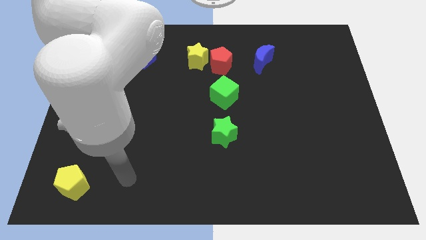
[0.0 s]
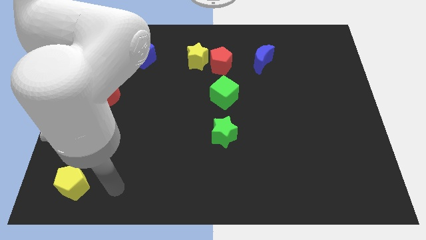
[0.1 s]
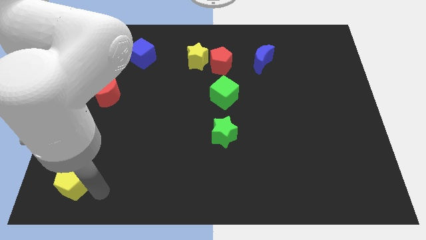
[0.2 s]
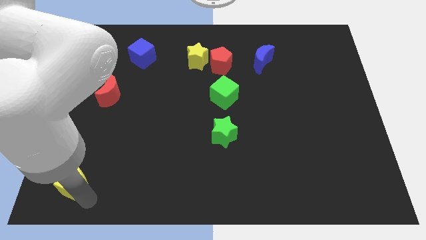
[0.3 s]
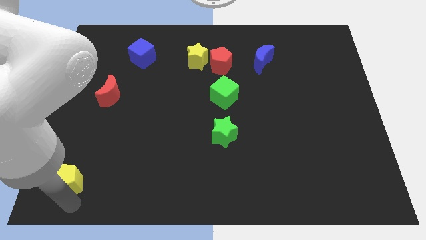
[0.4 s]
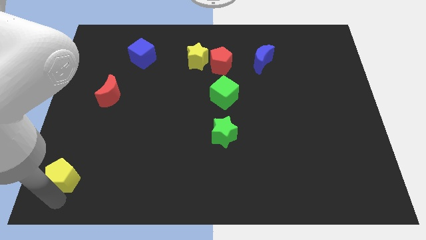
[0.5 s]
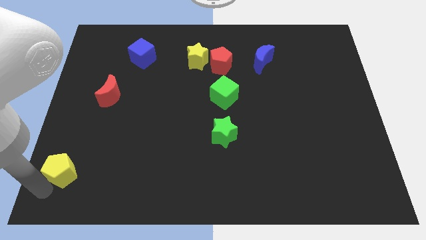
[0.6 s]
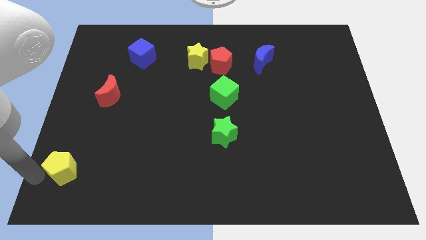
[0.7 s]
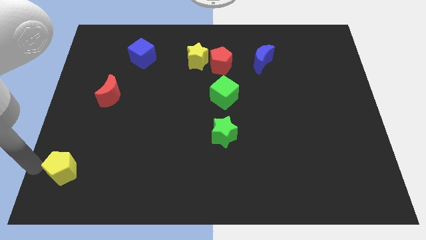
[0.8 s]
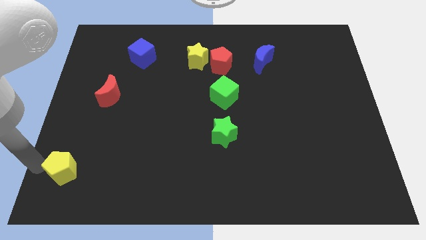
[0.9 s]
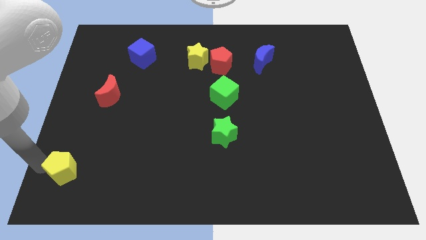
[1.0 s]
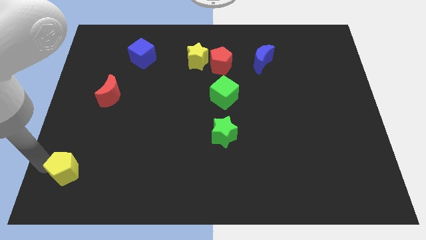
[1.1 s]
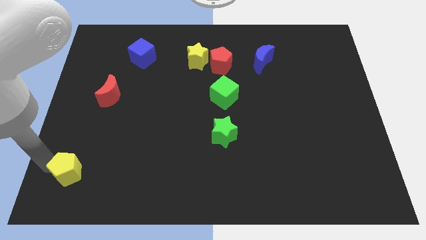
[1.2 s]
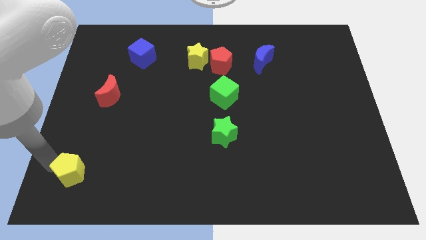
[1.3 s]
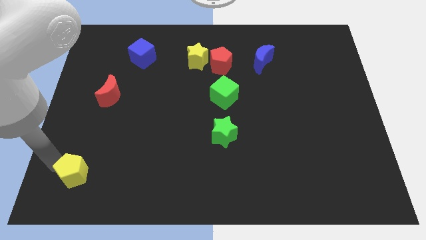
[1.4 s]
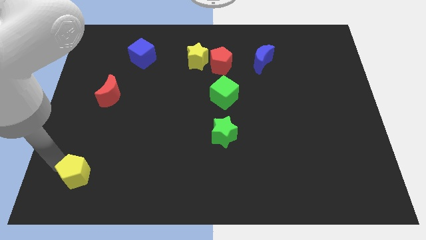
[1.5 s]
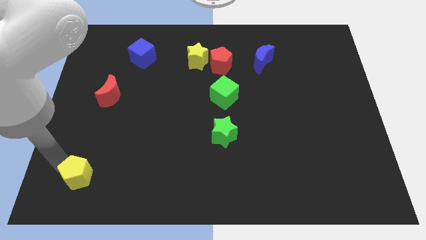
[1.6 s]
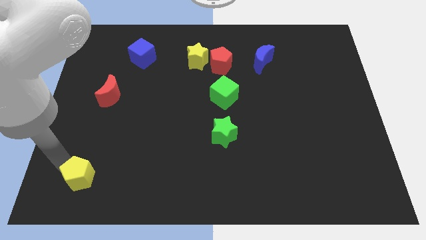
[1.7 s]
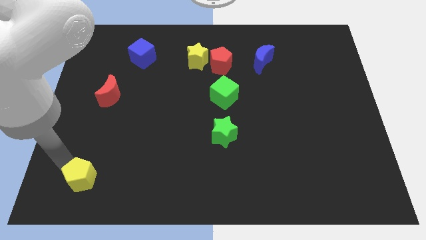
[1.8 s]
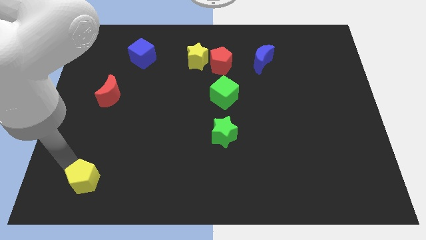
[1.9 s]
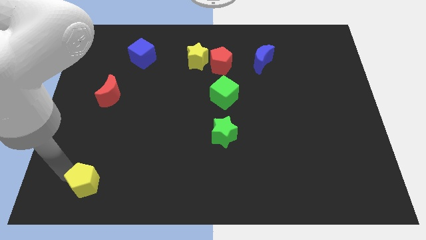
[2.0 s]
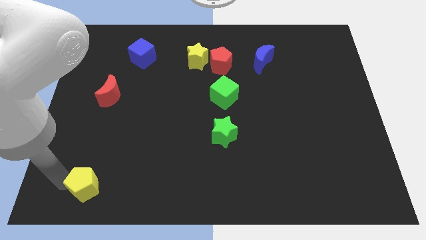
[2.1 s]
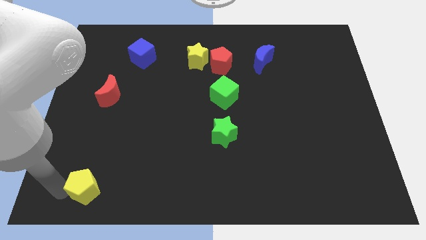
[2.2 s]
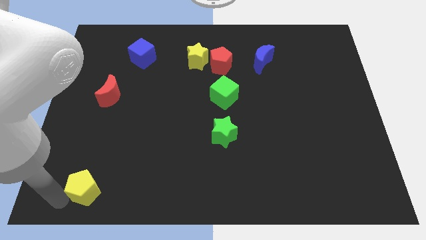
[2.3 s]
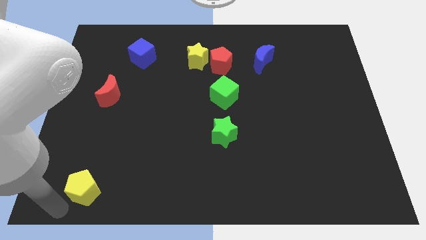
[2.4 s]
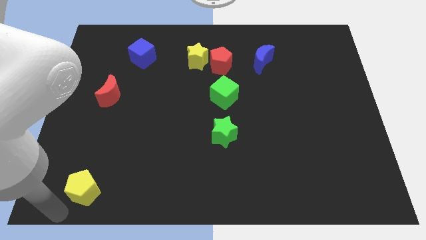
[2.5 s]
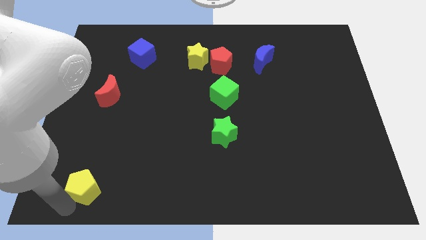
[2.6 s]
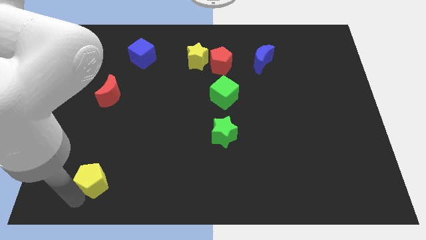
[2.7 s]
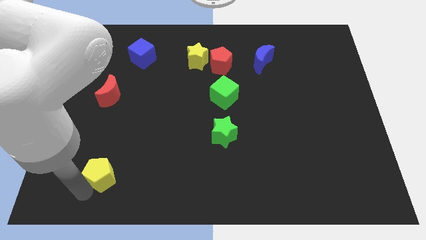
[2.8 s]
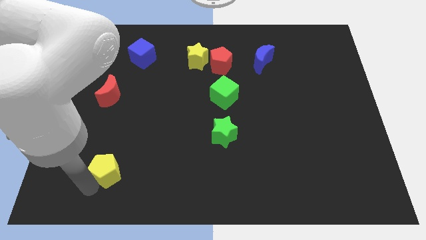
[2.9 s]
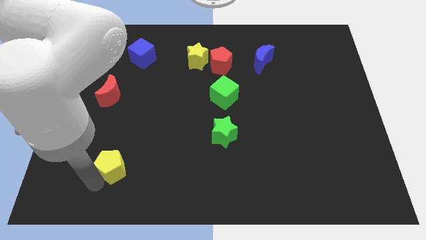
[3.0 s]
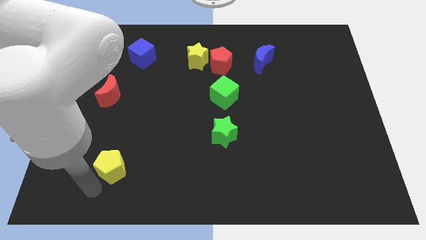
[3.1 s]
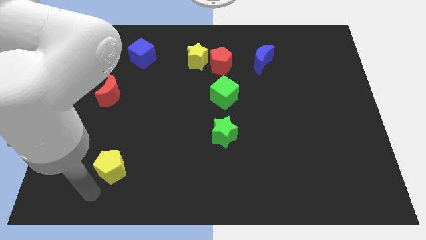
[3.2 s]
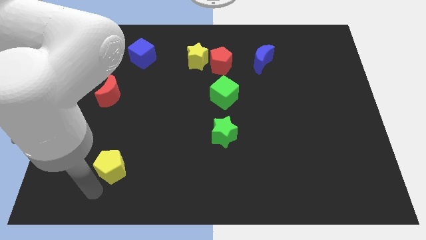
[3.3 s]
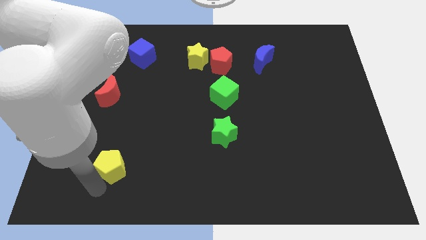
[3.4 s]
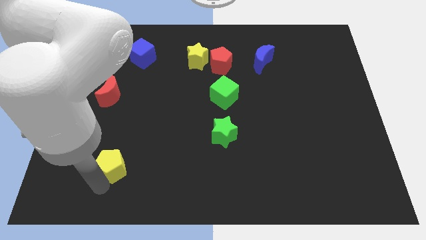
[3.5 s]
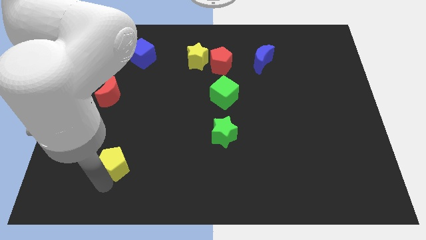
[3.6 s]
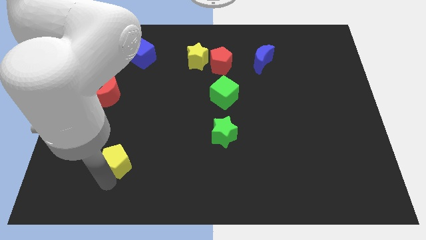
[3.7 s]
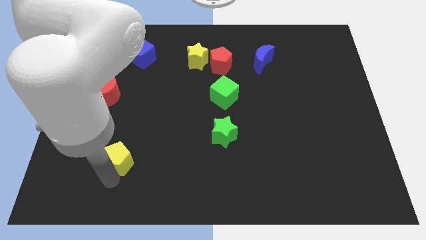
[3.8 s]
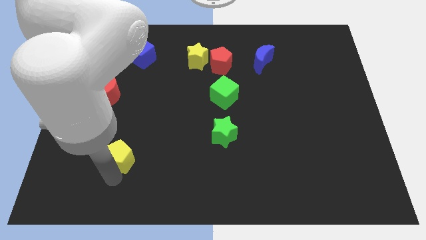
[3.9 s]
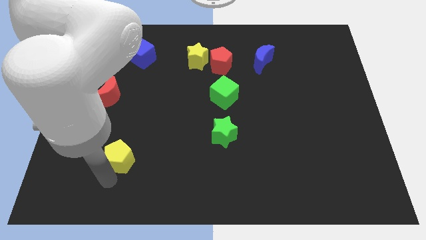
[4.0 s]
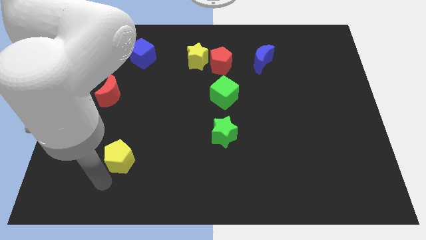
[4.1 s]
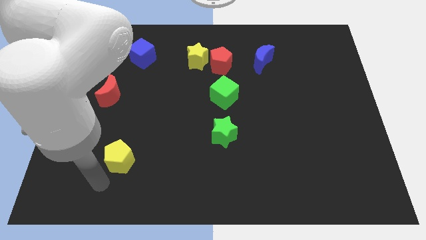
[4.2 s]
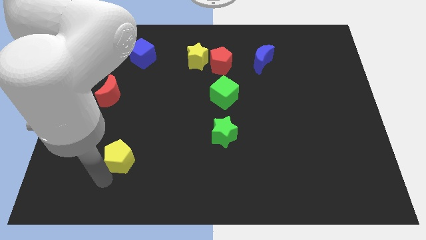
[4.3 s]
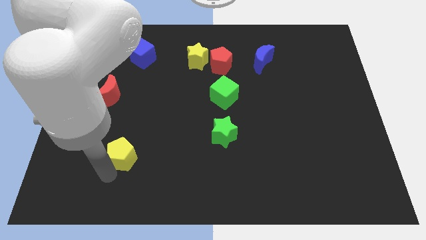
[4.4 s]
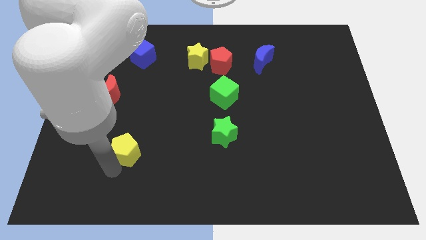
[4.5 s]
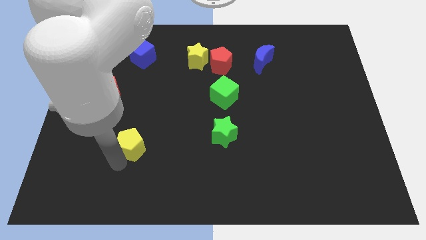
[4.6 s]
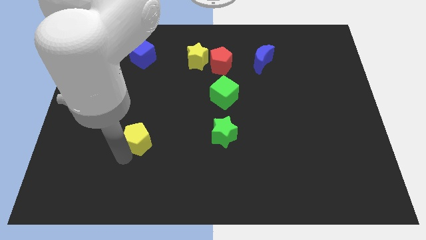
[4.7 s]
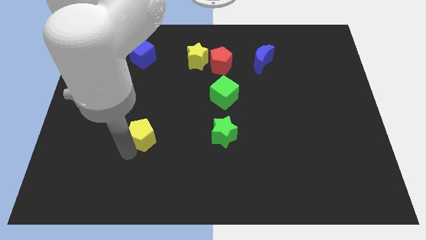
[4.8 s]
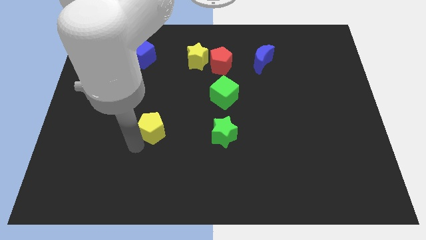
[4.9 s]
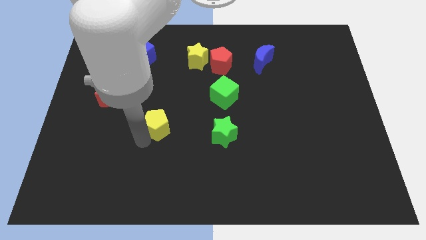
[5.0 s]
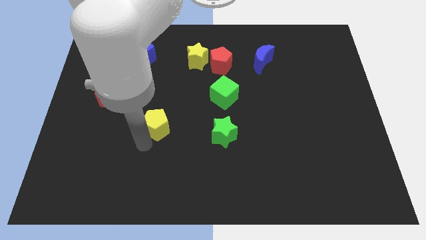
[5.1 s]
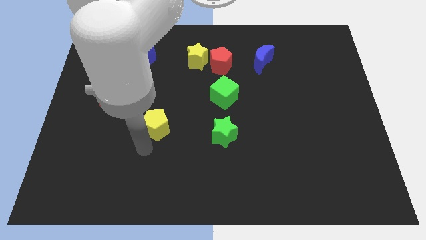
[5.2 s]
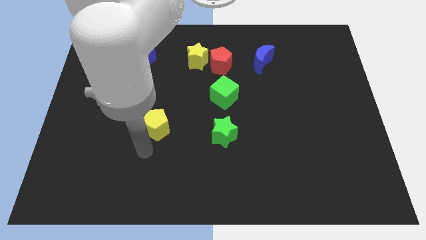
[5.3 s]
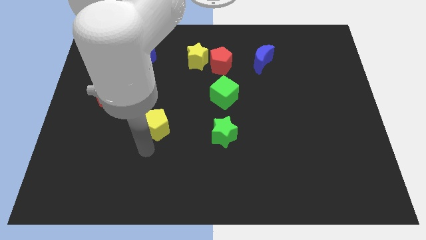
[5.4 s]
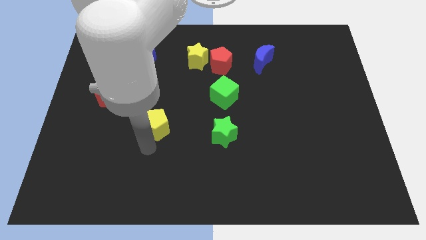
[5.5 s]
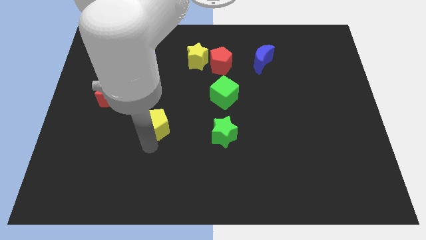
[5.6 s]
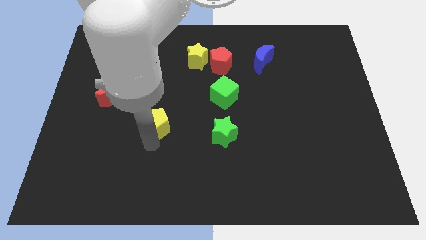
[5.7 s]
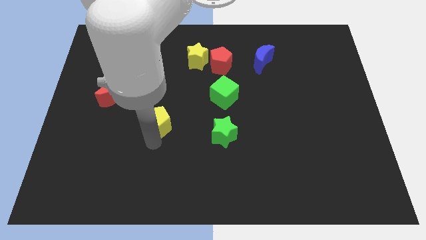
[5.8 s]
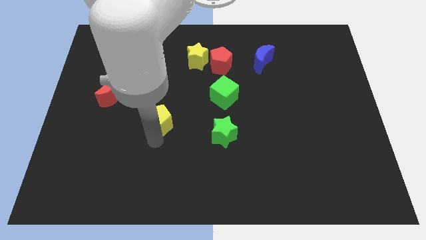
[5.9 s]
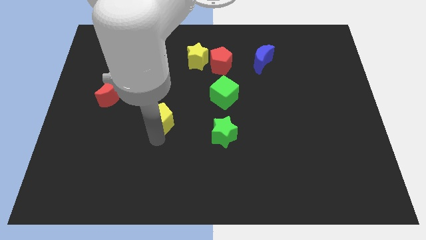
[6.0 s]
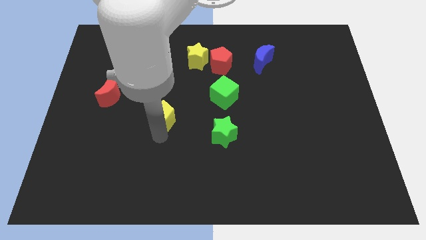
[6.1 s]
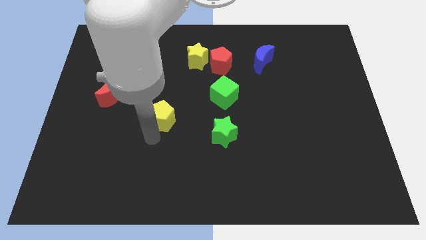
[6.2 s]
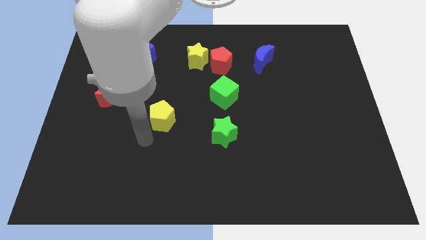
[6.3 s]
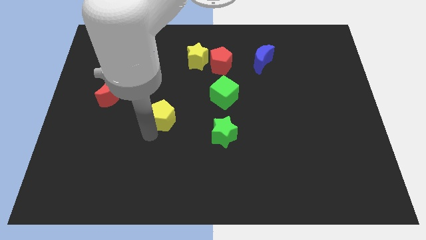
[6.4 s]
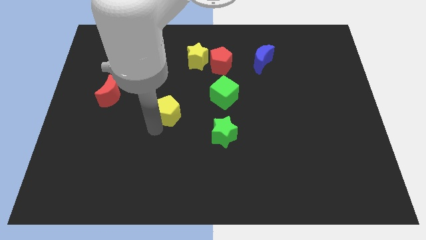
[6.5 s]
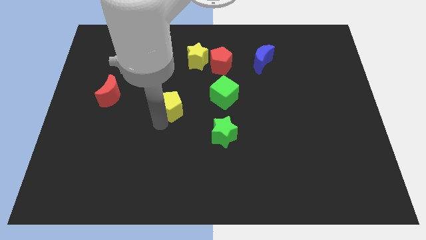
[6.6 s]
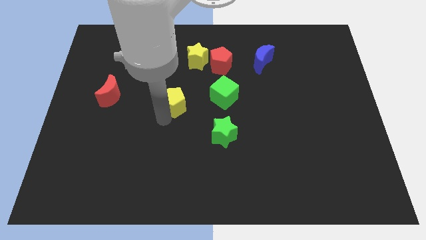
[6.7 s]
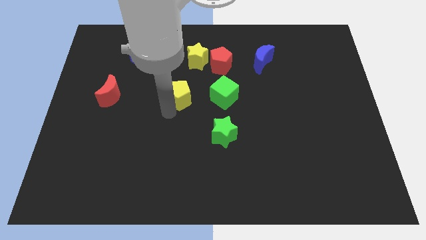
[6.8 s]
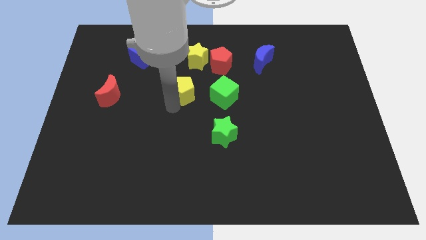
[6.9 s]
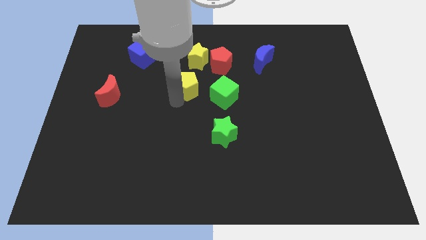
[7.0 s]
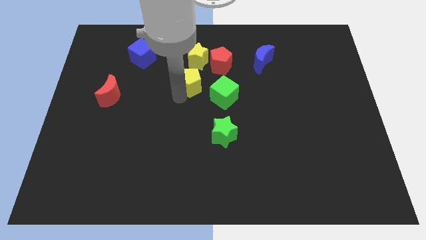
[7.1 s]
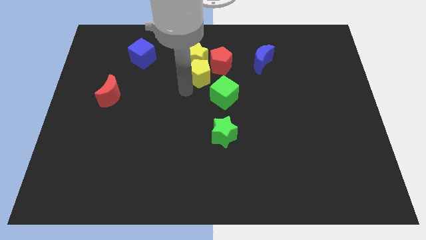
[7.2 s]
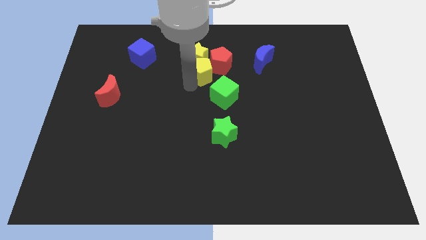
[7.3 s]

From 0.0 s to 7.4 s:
put the yellow pentagon next to the red pentagon
